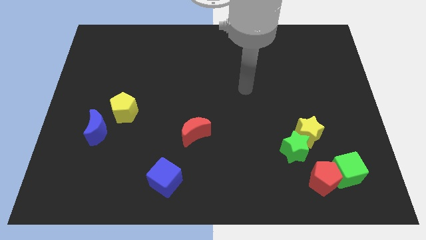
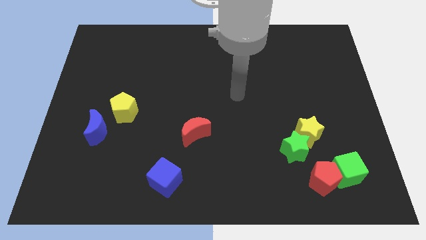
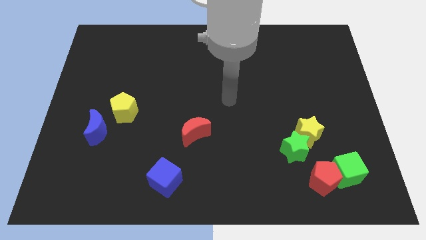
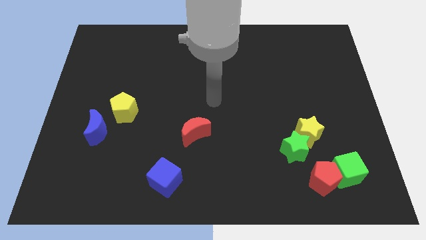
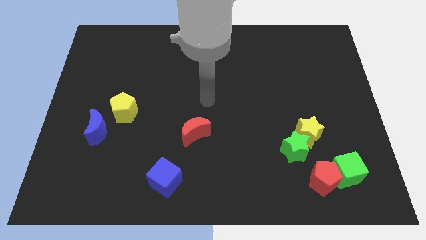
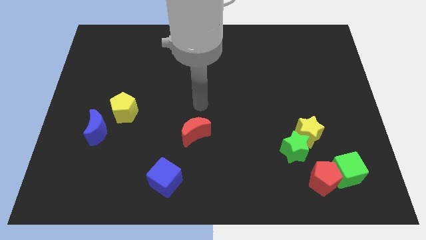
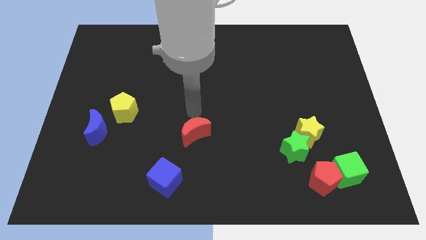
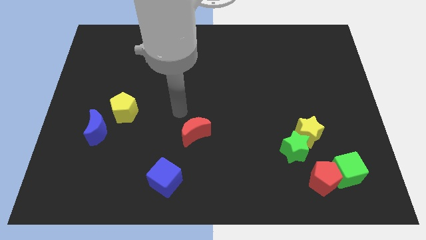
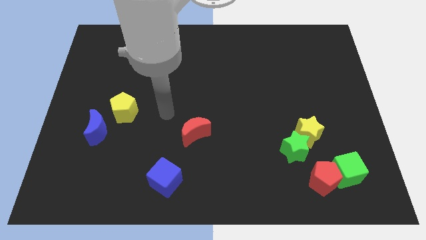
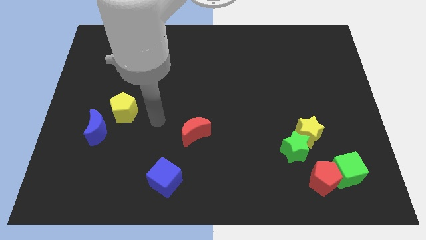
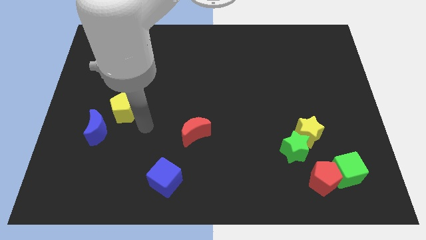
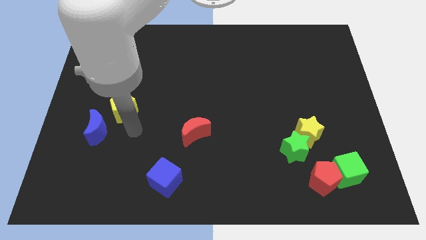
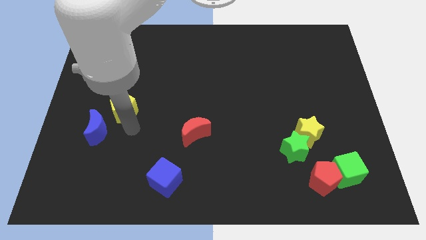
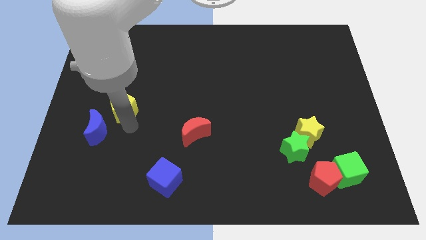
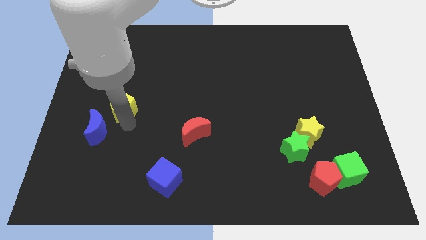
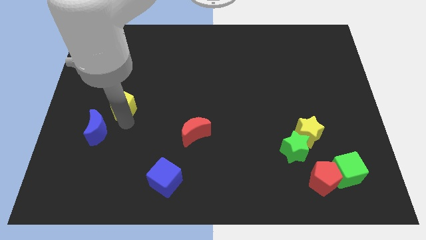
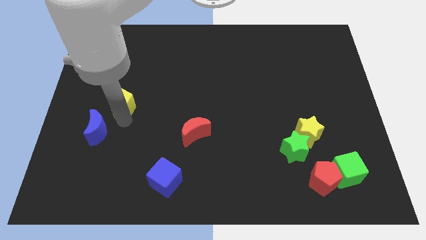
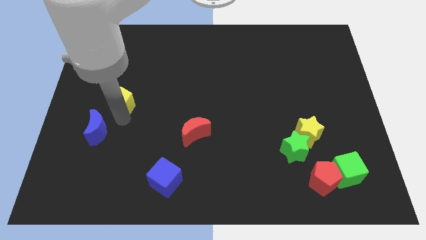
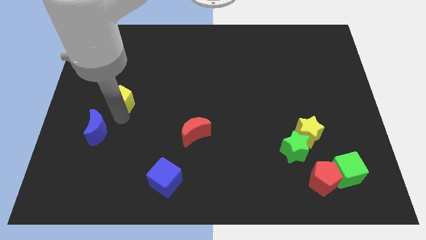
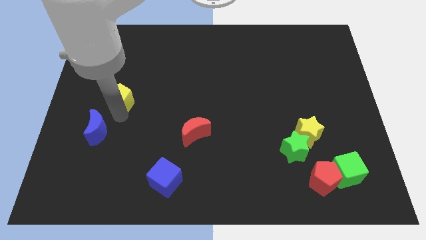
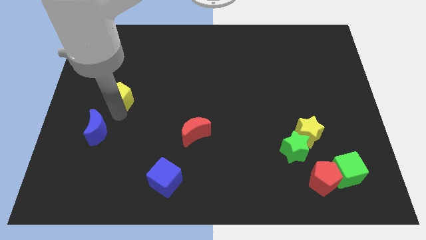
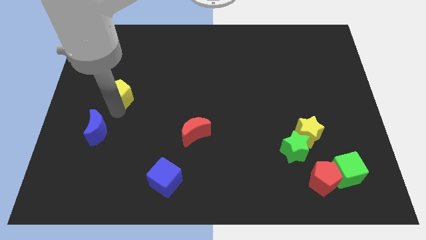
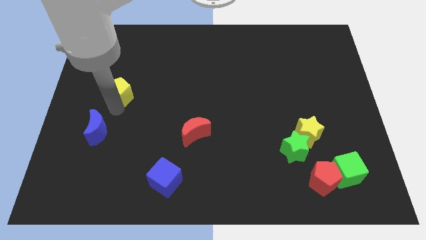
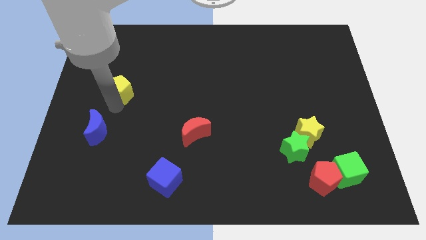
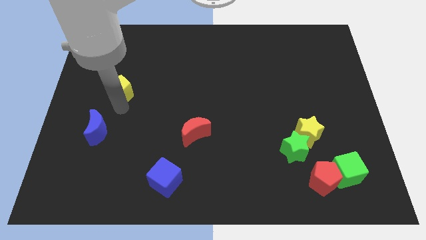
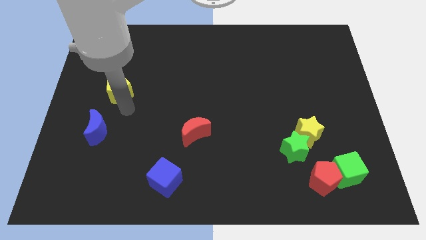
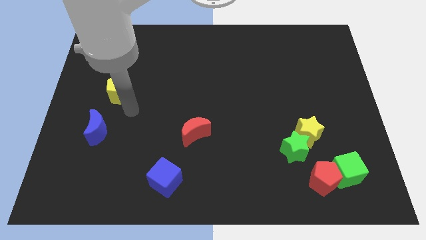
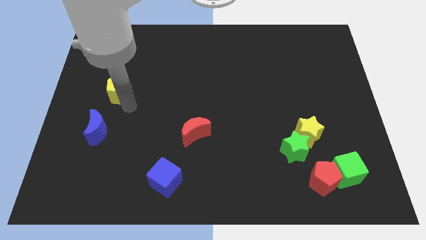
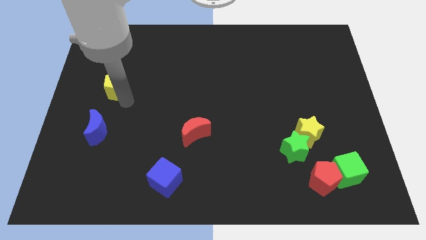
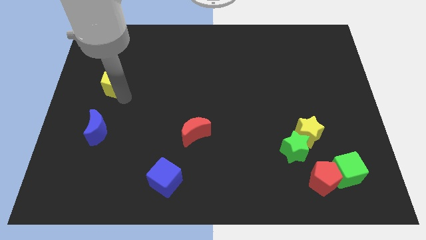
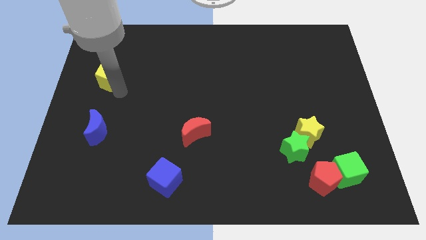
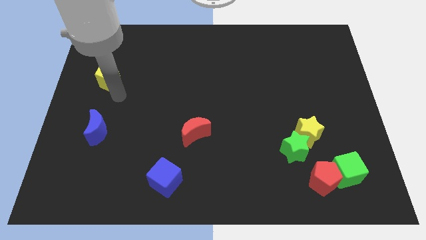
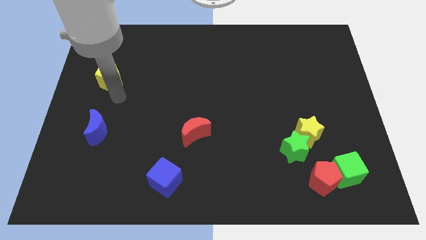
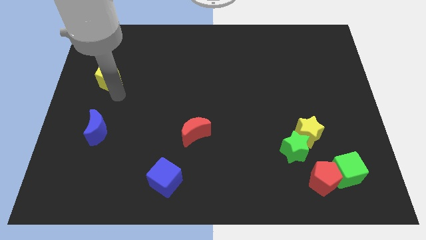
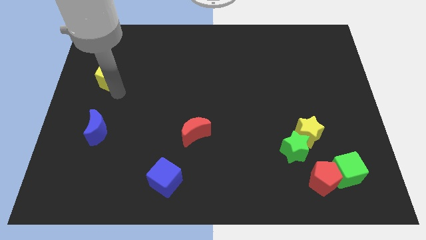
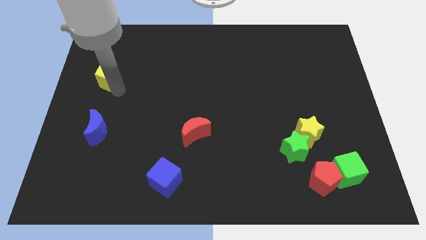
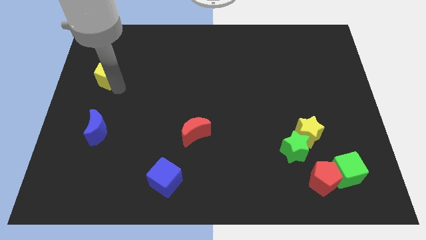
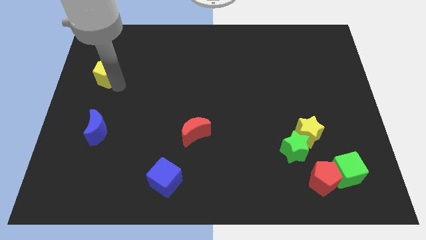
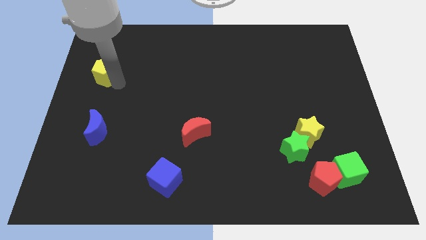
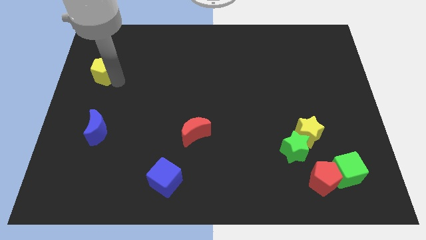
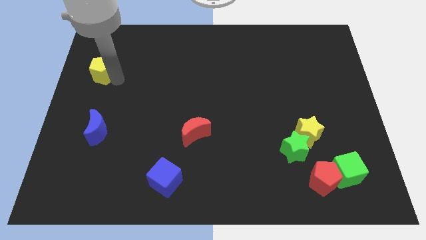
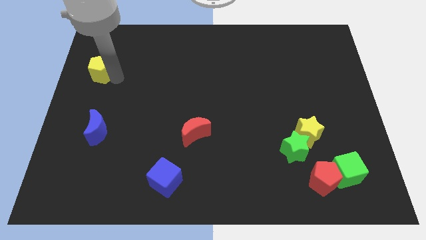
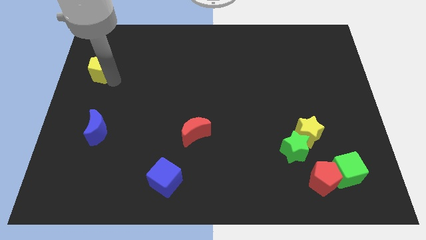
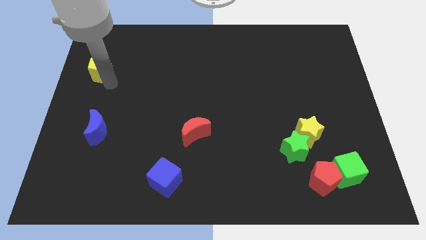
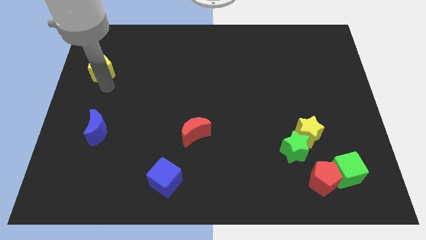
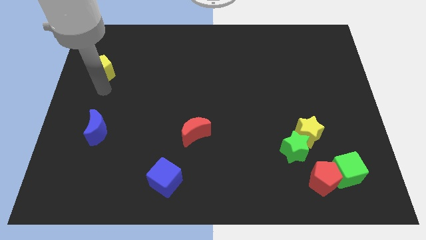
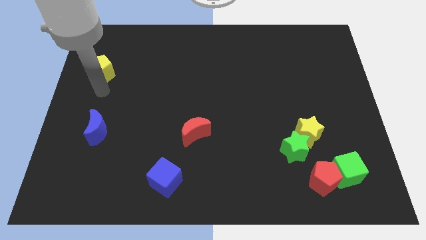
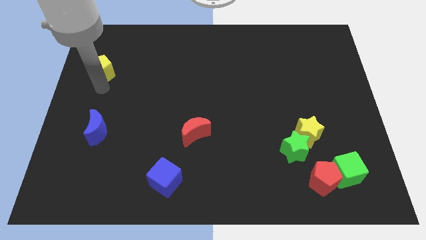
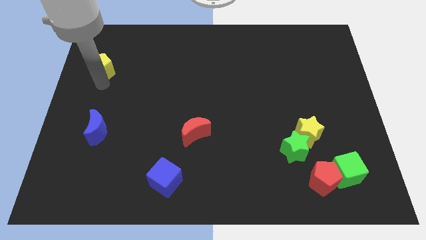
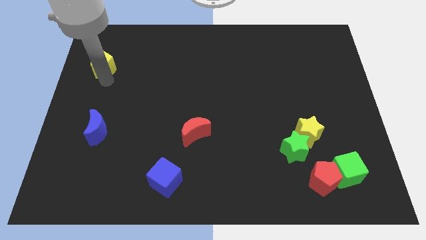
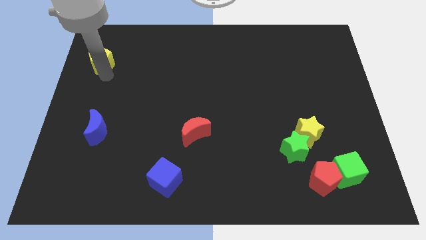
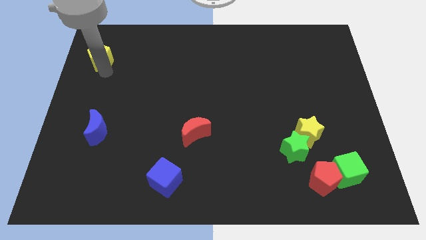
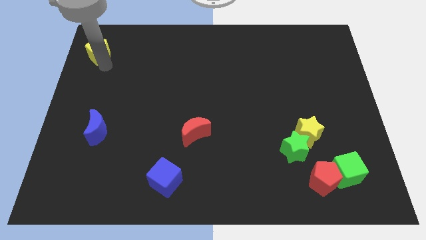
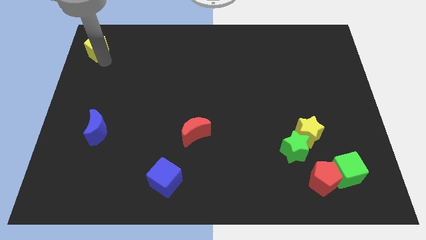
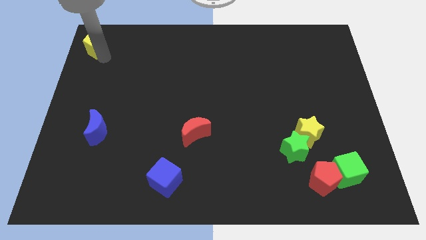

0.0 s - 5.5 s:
slide the yellow pentagon to the top left corner

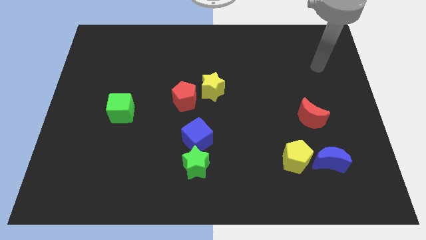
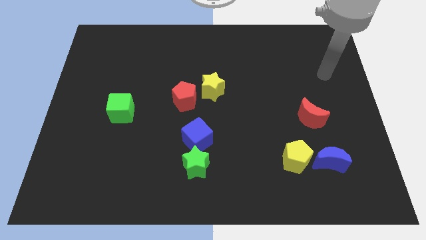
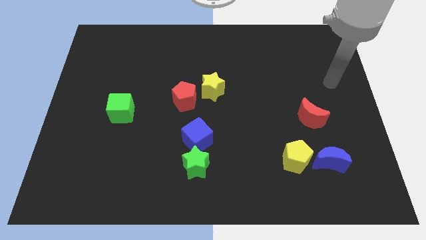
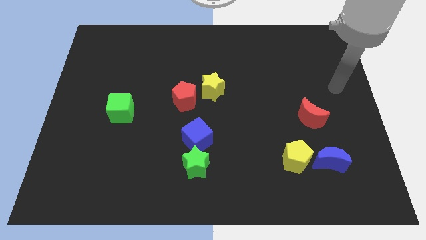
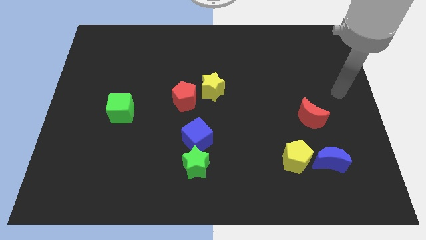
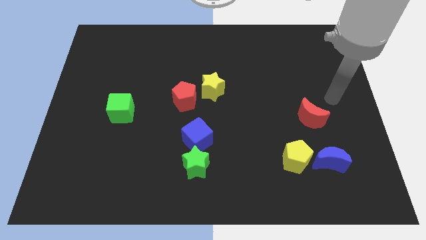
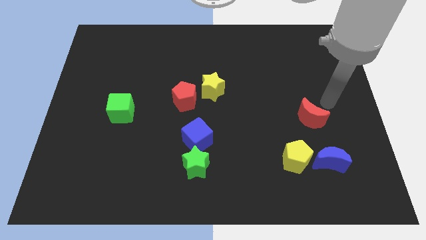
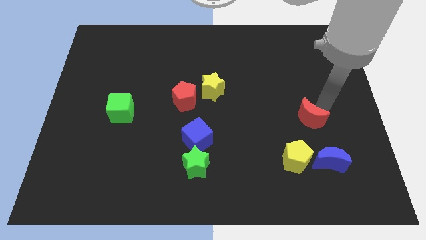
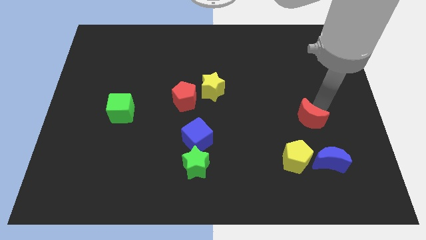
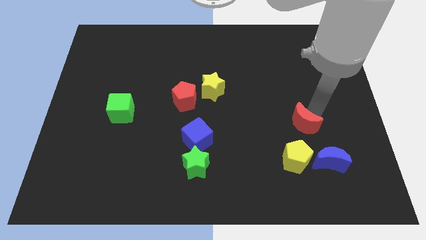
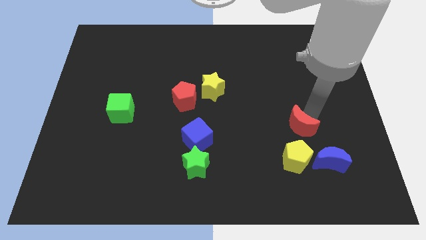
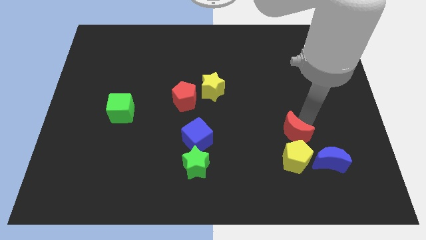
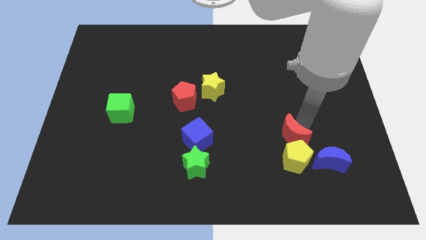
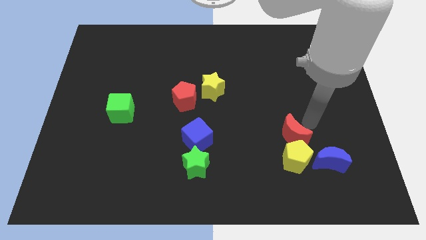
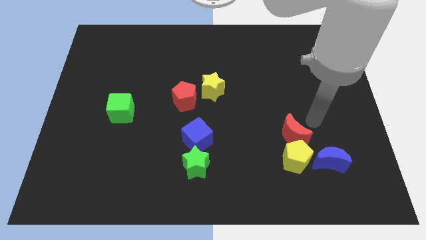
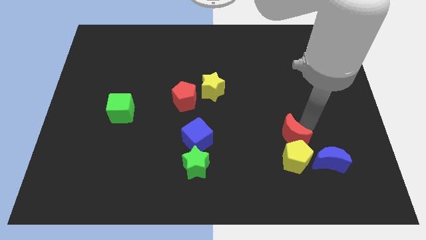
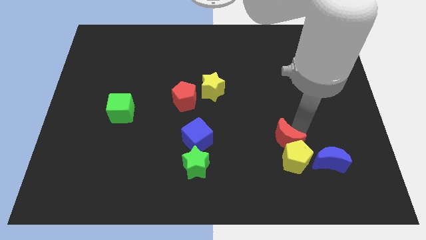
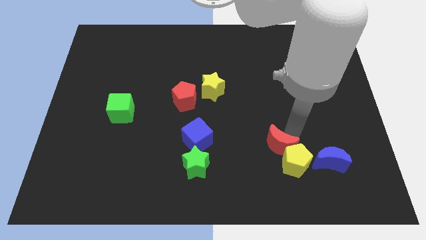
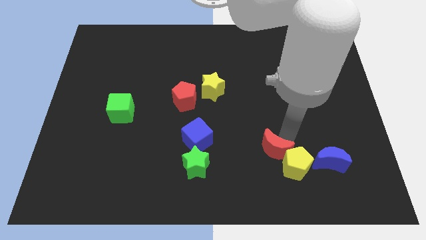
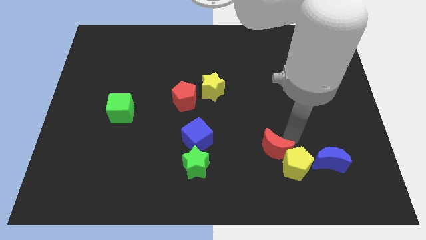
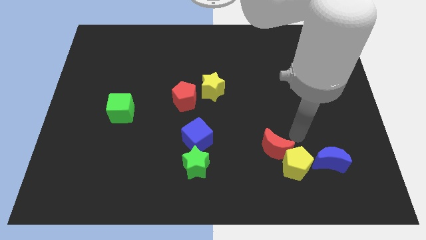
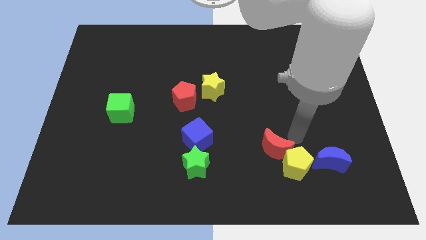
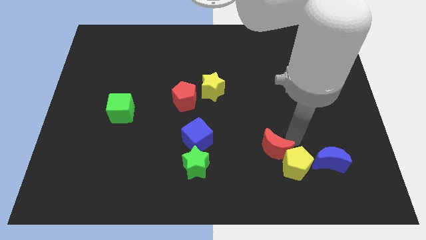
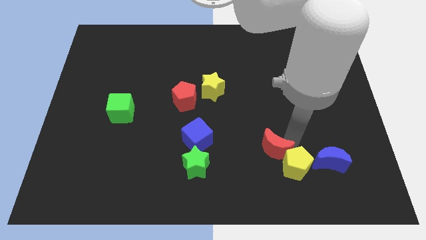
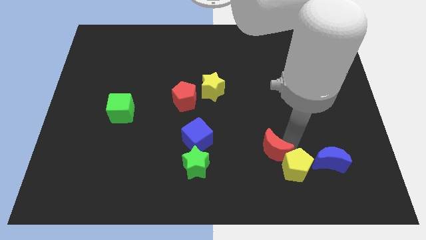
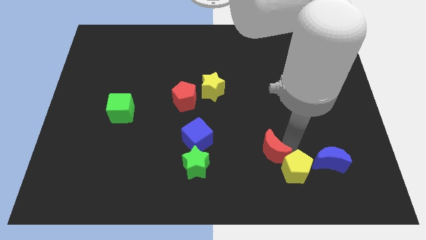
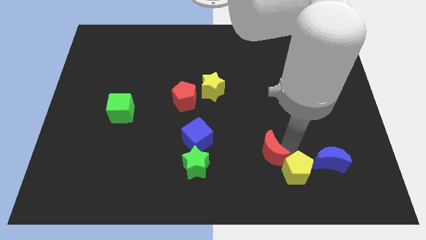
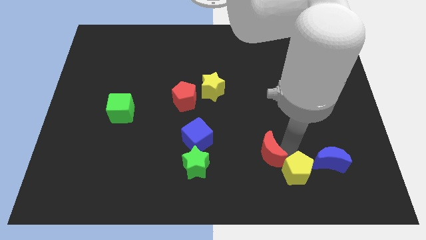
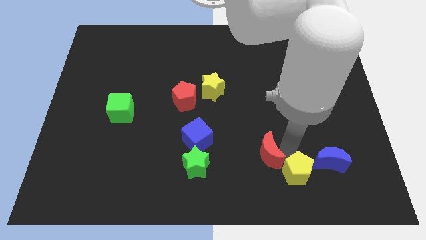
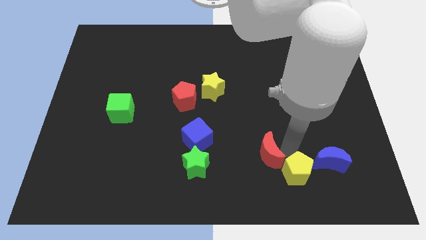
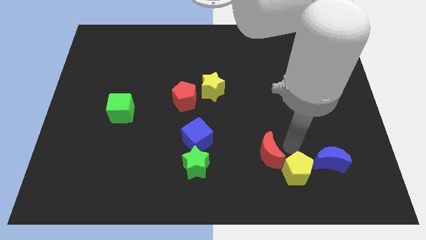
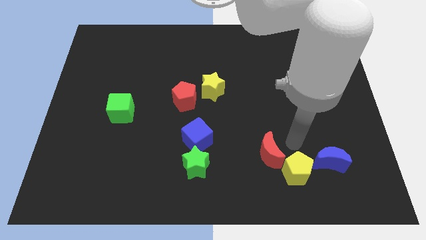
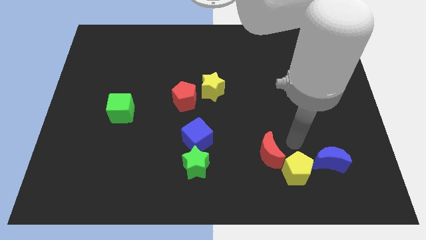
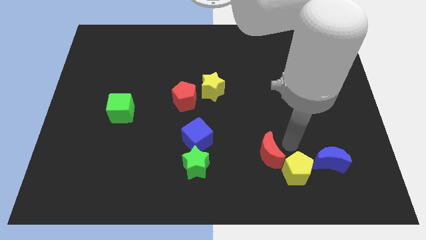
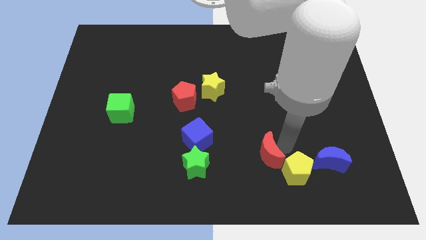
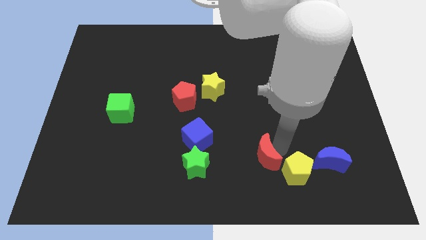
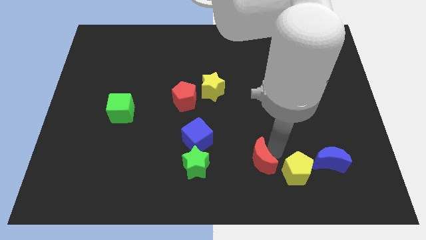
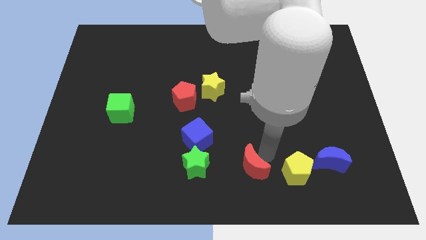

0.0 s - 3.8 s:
move the red moon to the bottom side
